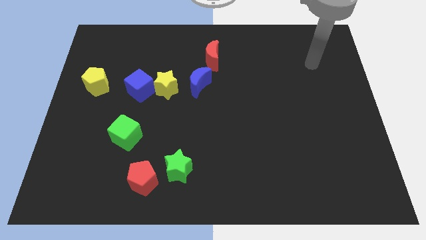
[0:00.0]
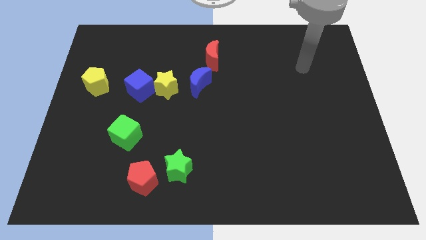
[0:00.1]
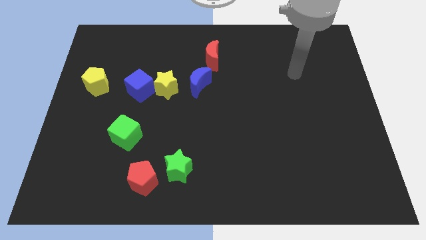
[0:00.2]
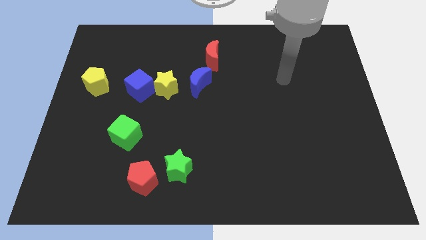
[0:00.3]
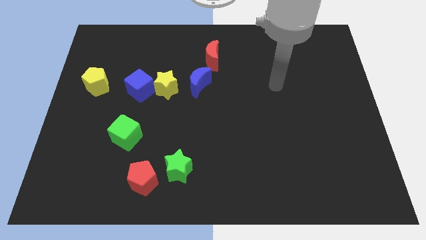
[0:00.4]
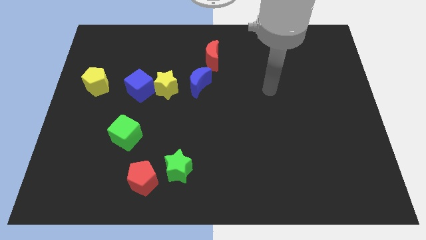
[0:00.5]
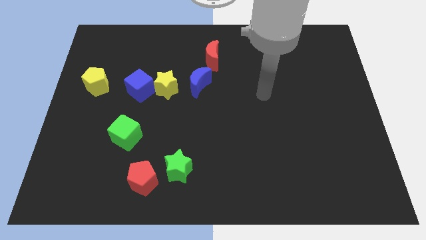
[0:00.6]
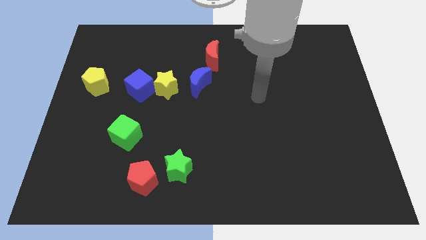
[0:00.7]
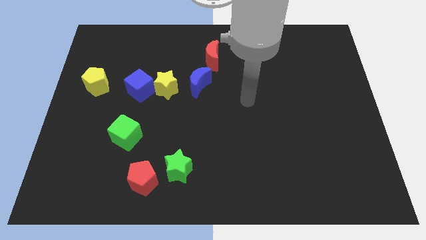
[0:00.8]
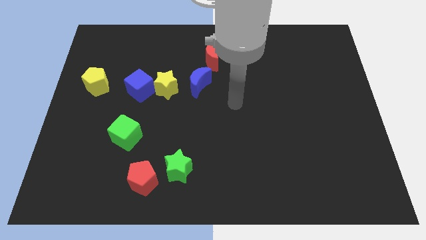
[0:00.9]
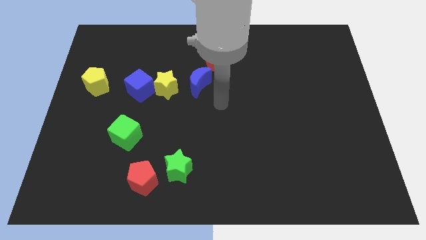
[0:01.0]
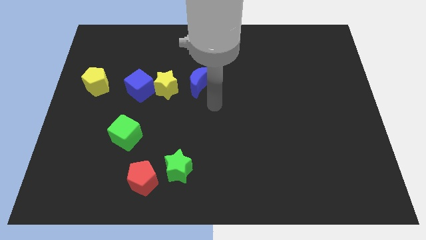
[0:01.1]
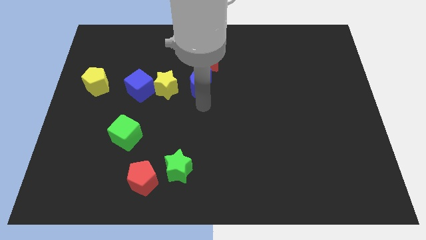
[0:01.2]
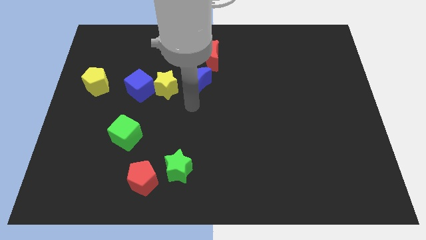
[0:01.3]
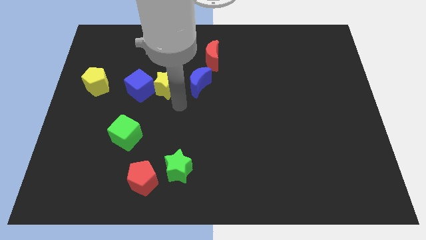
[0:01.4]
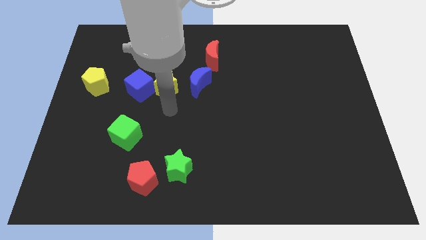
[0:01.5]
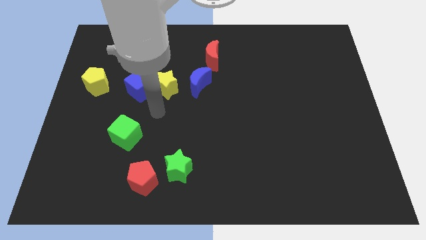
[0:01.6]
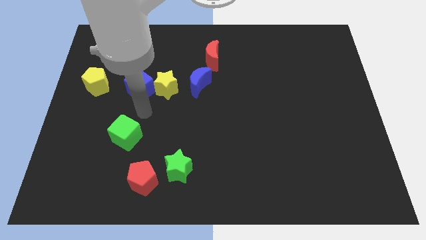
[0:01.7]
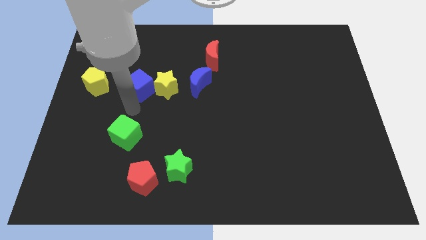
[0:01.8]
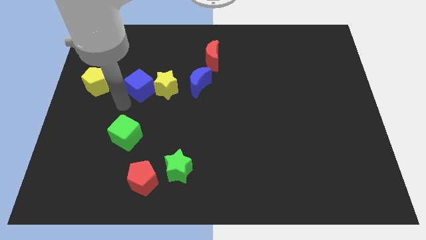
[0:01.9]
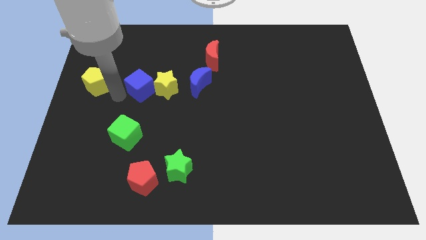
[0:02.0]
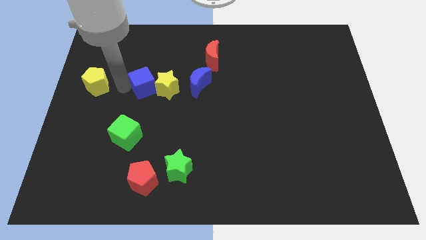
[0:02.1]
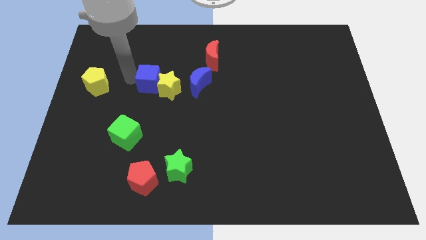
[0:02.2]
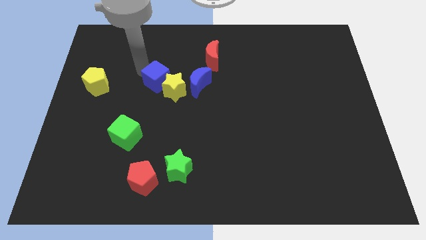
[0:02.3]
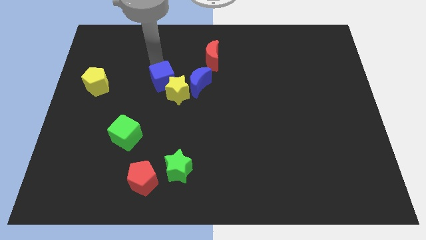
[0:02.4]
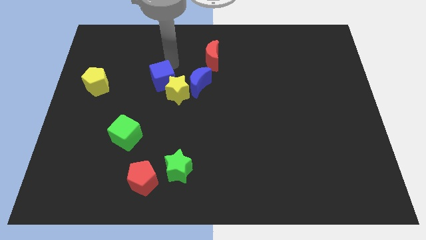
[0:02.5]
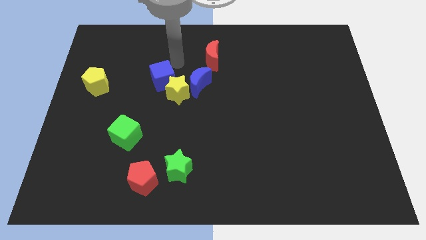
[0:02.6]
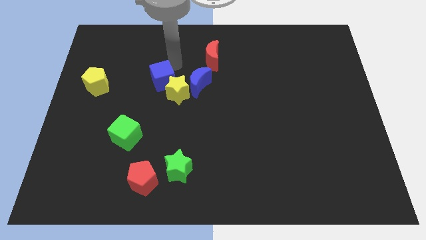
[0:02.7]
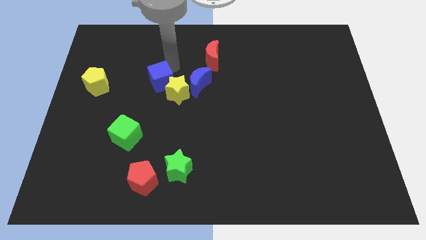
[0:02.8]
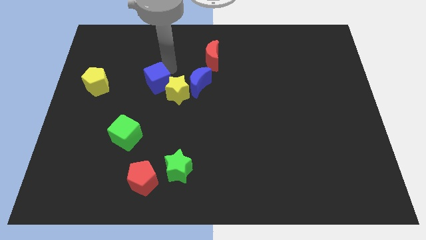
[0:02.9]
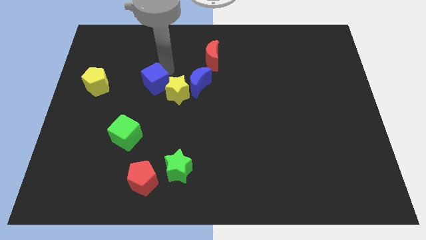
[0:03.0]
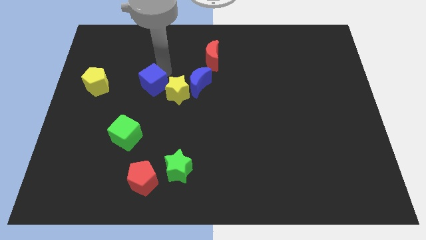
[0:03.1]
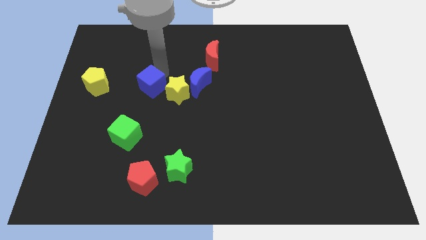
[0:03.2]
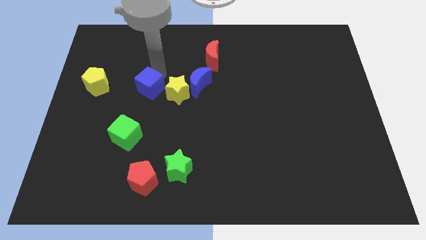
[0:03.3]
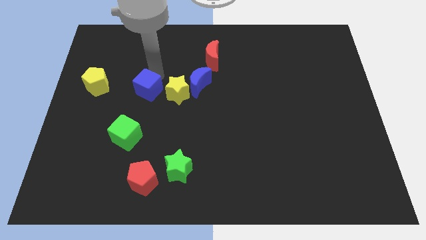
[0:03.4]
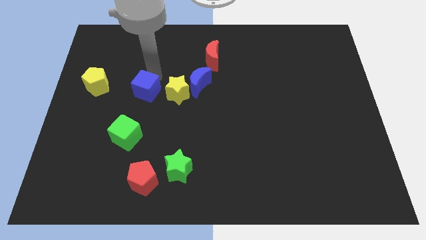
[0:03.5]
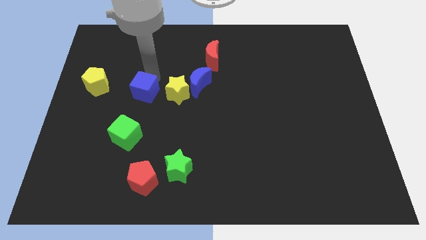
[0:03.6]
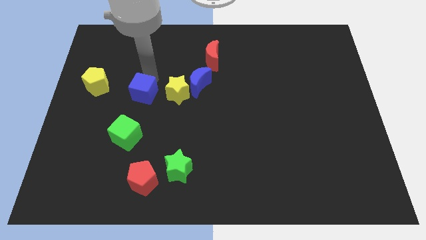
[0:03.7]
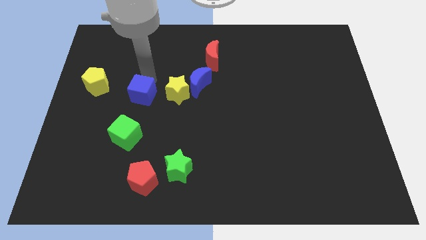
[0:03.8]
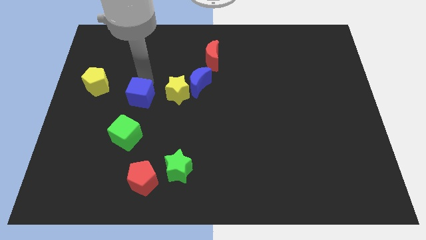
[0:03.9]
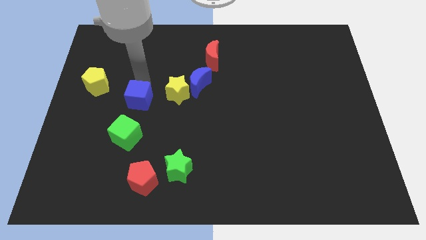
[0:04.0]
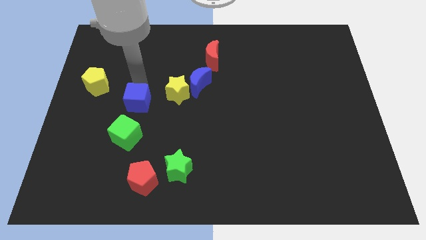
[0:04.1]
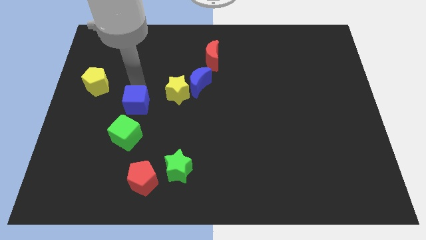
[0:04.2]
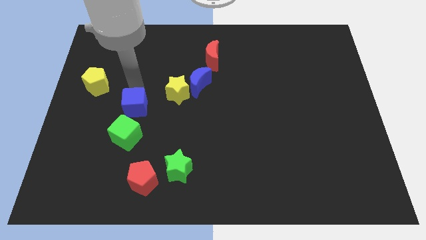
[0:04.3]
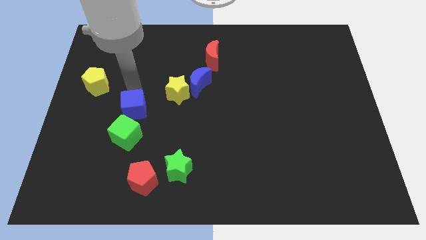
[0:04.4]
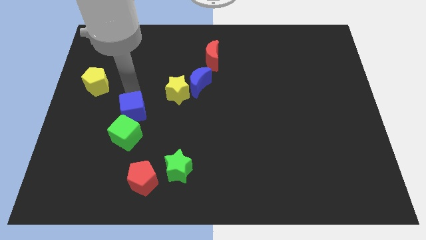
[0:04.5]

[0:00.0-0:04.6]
slightly slide the blue cube downwards

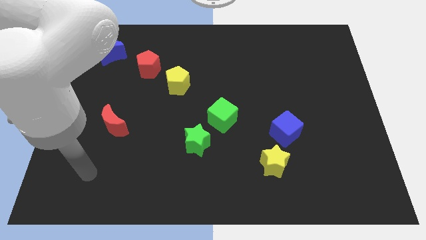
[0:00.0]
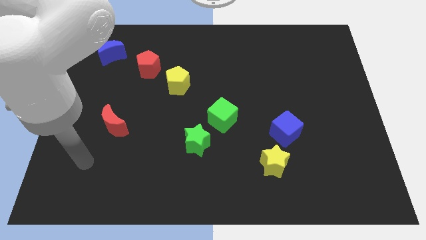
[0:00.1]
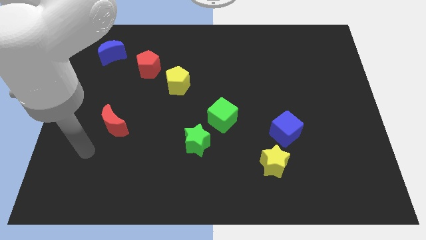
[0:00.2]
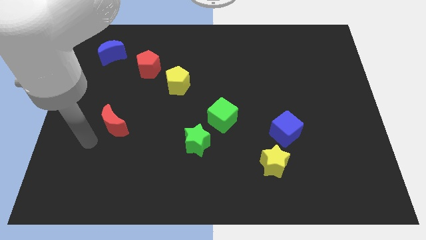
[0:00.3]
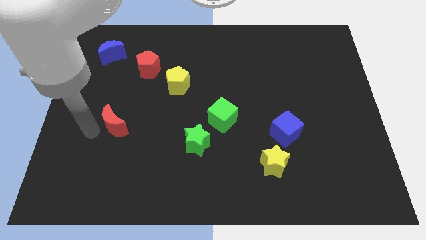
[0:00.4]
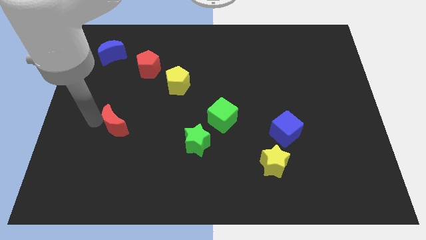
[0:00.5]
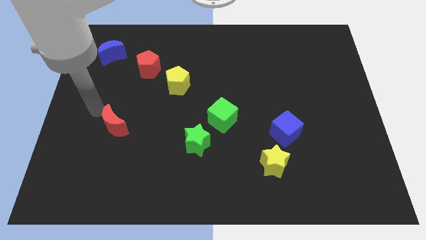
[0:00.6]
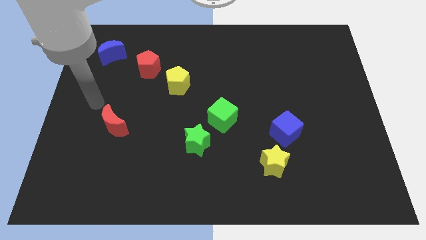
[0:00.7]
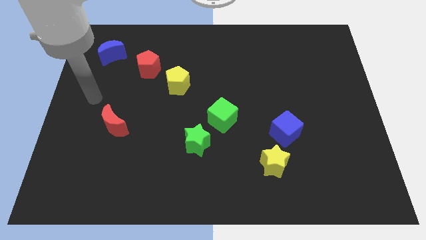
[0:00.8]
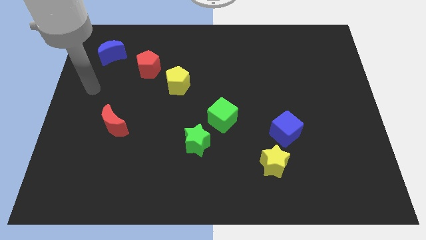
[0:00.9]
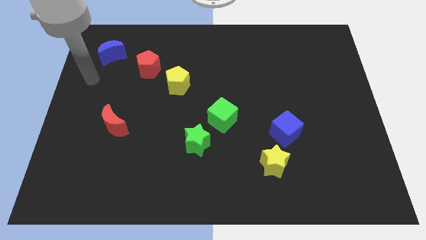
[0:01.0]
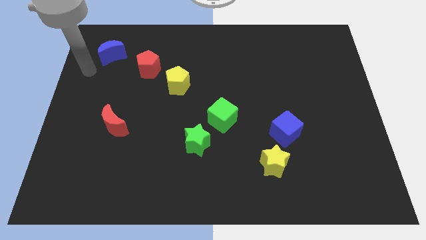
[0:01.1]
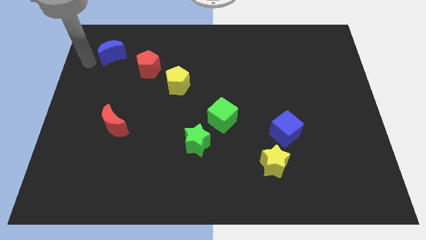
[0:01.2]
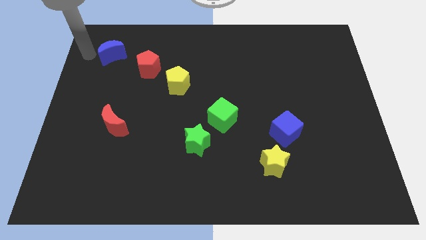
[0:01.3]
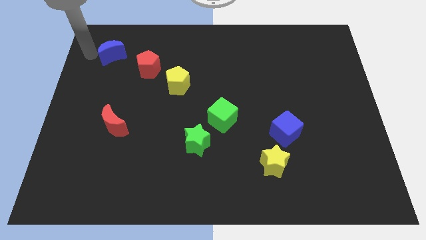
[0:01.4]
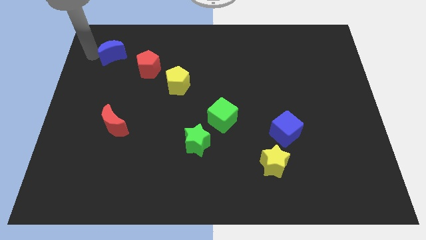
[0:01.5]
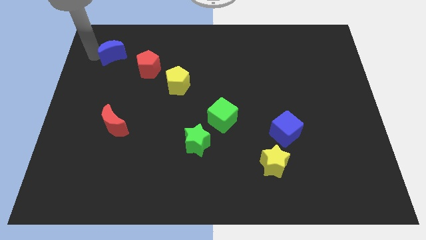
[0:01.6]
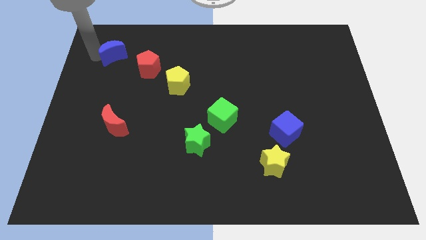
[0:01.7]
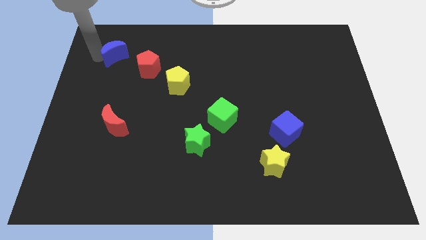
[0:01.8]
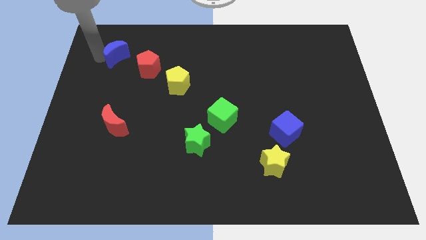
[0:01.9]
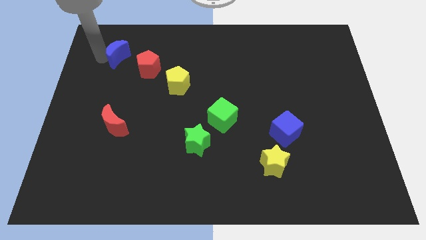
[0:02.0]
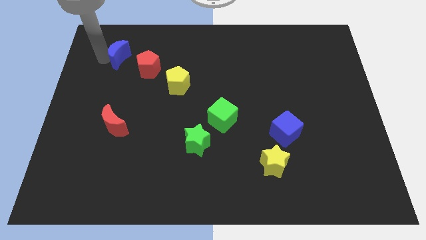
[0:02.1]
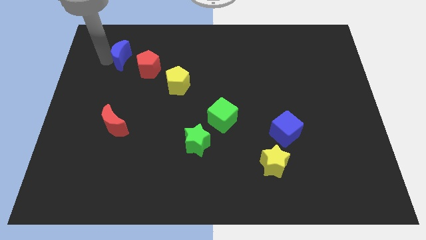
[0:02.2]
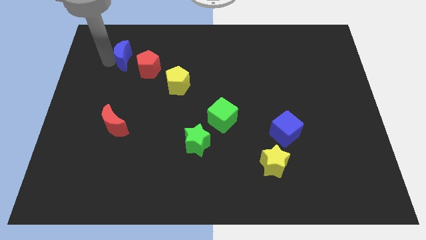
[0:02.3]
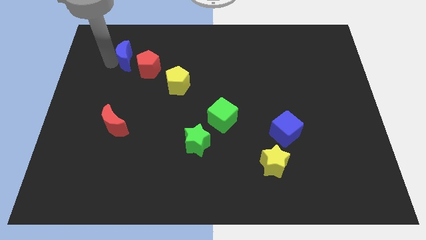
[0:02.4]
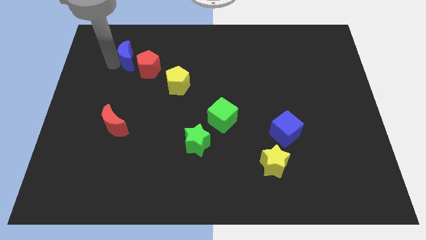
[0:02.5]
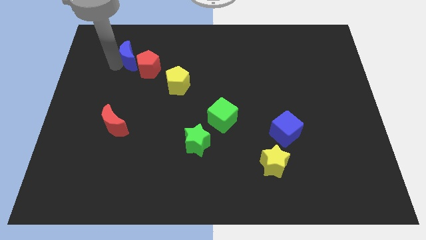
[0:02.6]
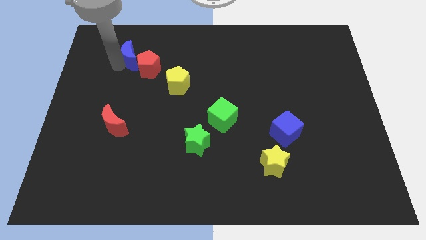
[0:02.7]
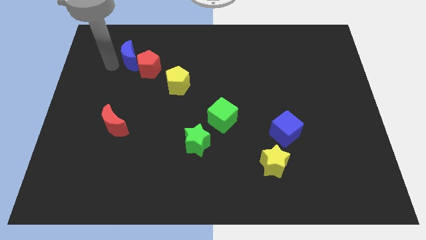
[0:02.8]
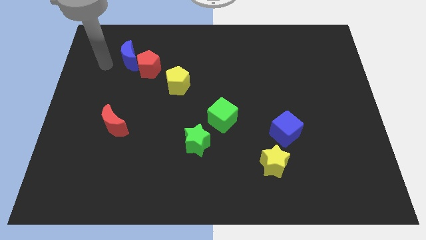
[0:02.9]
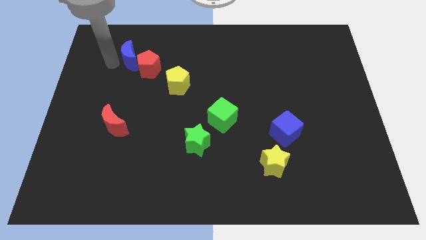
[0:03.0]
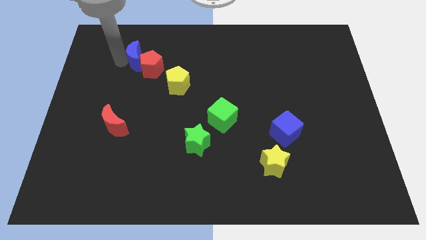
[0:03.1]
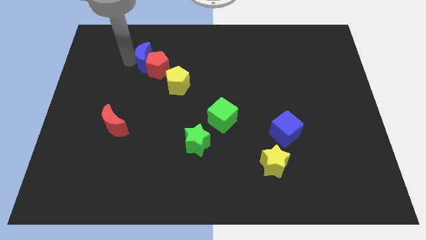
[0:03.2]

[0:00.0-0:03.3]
move the blue moon a little bit to the right
